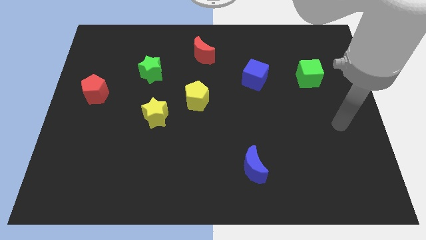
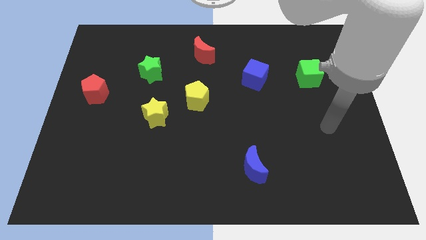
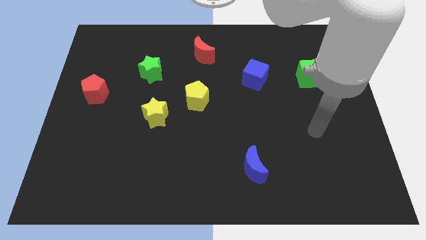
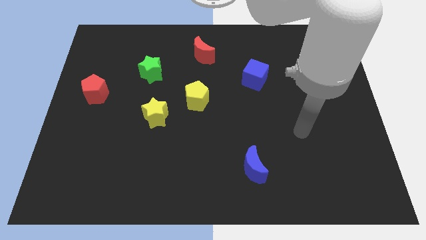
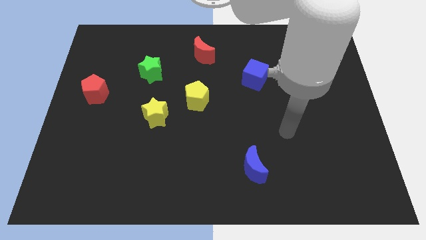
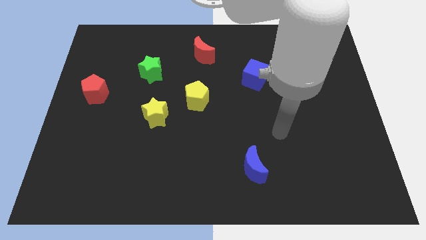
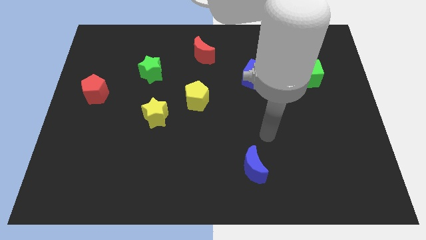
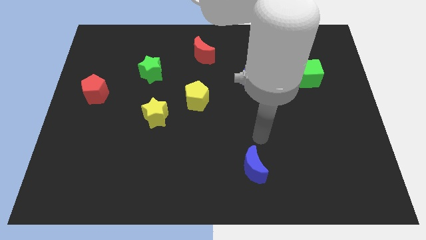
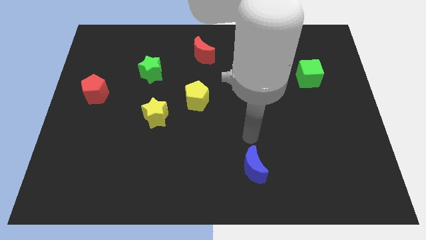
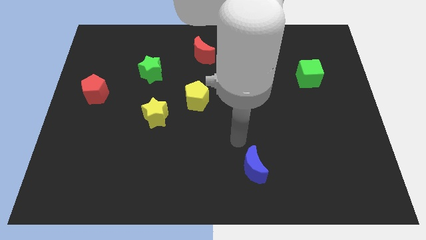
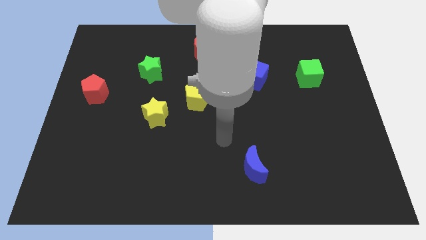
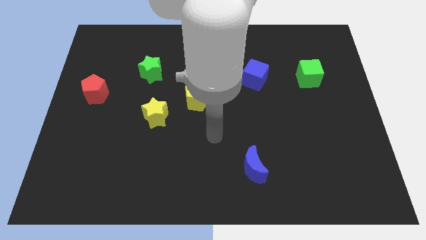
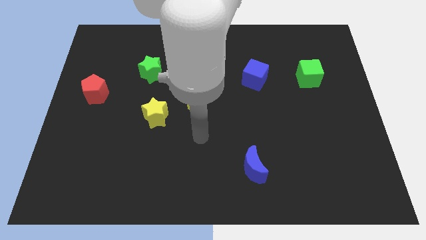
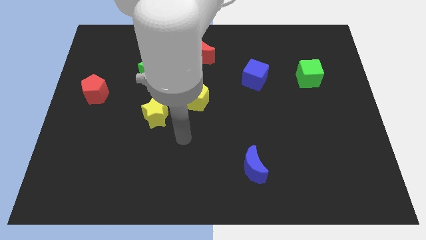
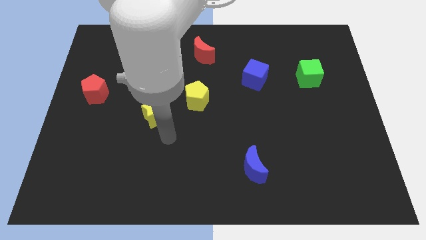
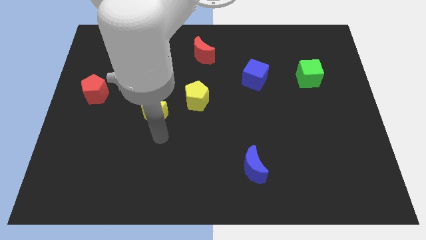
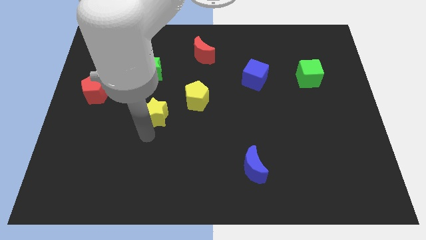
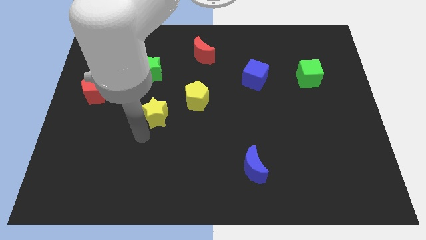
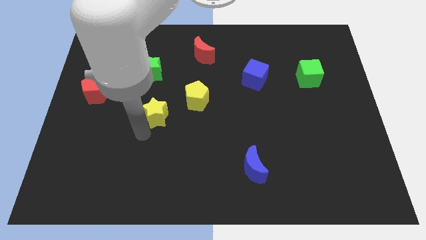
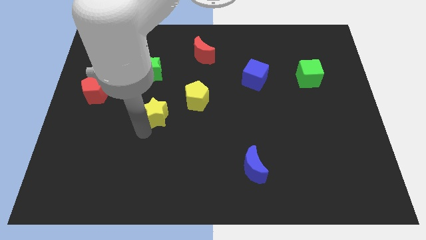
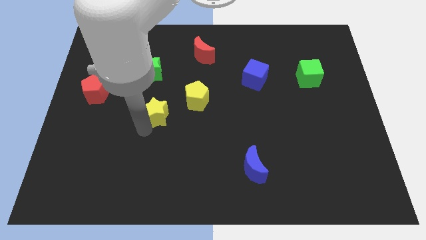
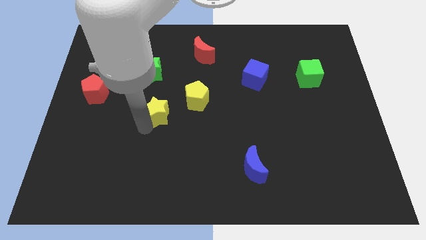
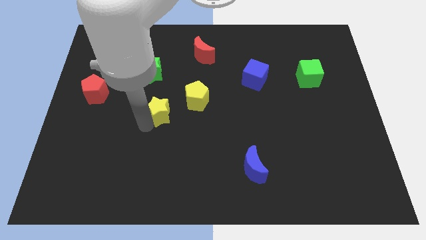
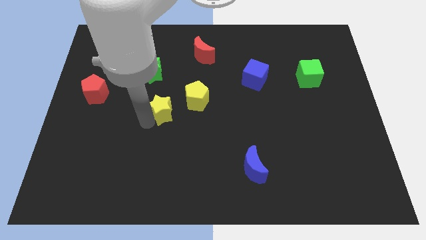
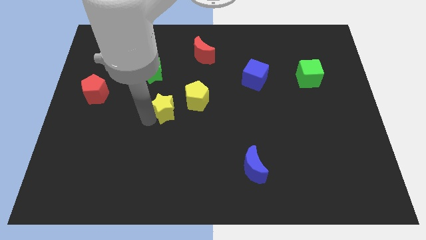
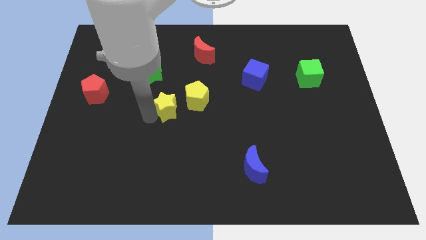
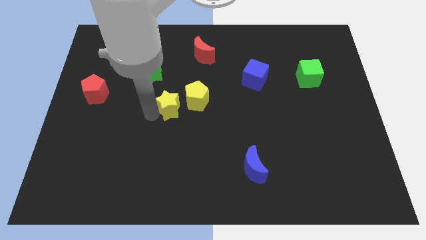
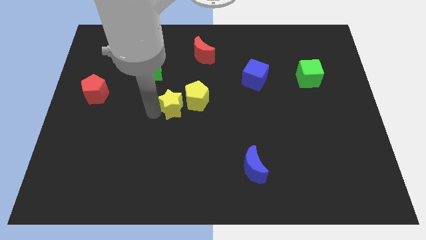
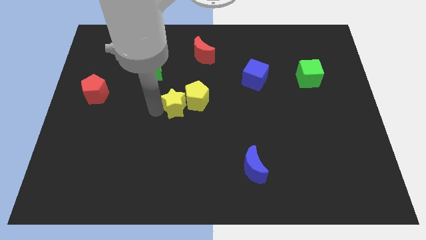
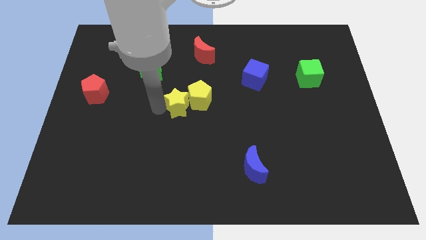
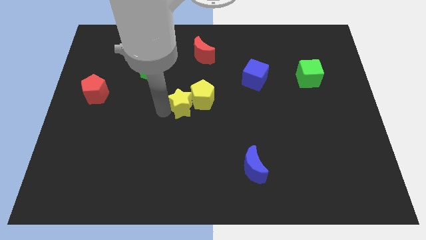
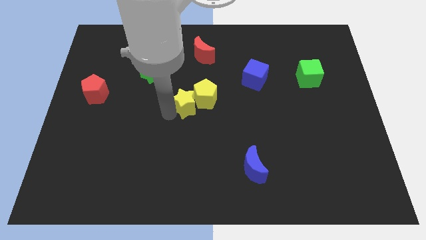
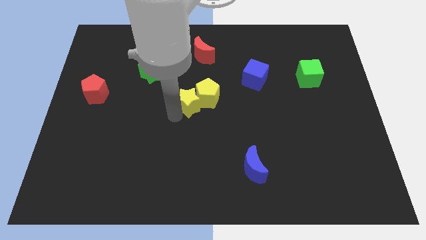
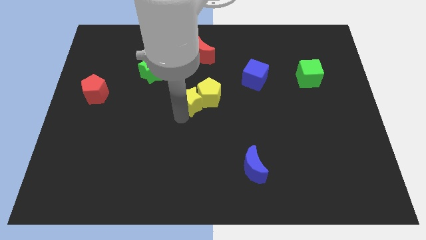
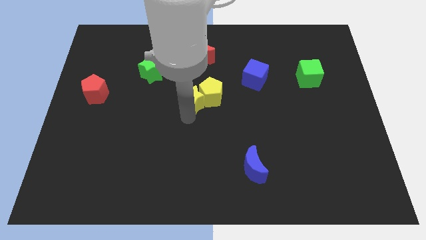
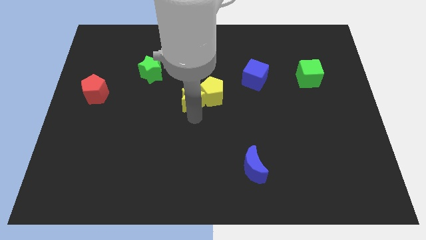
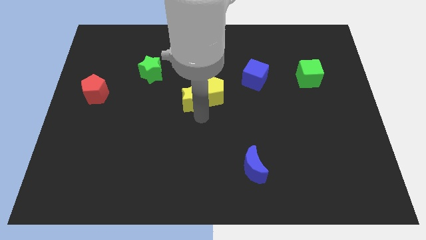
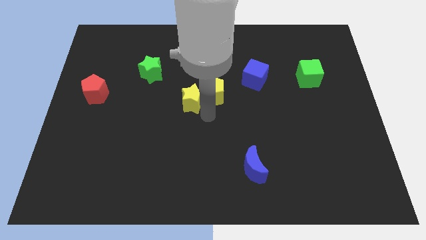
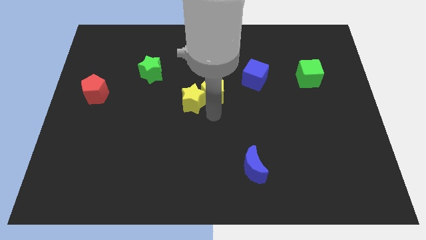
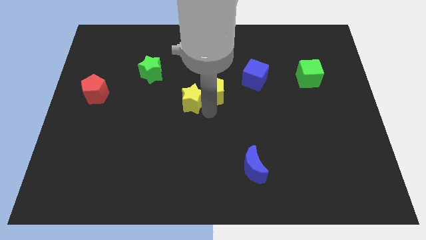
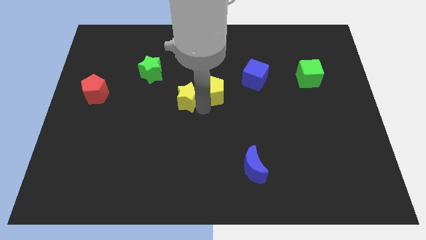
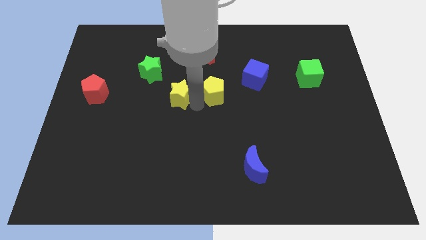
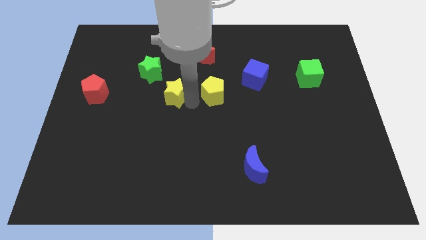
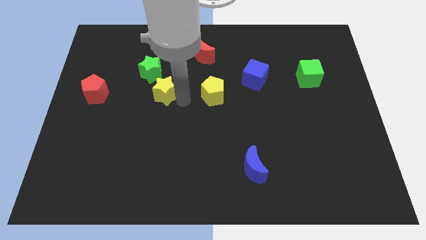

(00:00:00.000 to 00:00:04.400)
slightly move the yellow star upwards

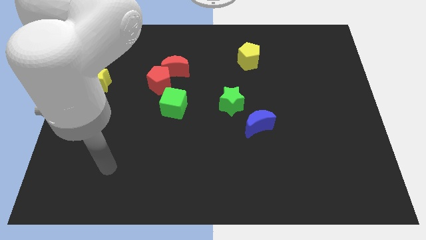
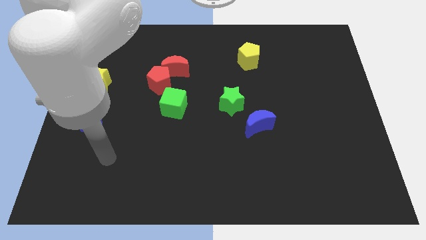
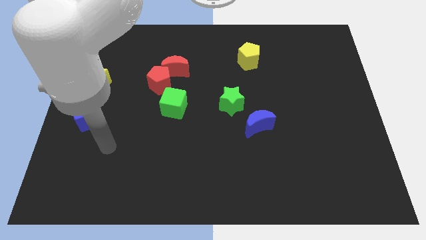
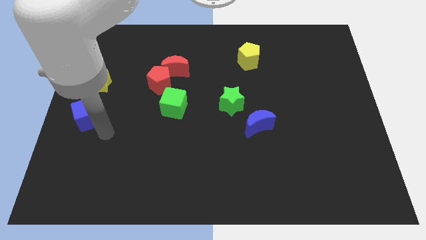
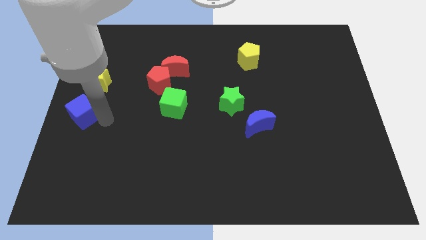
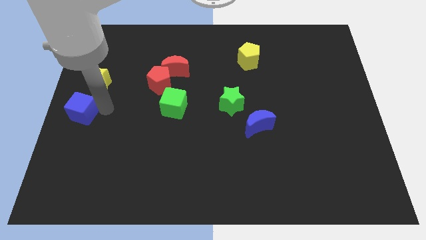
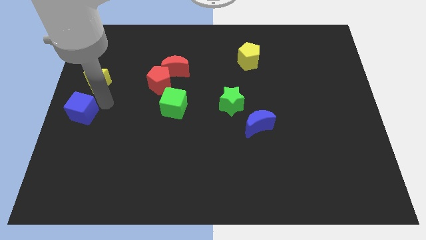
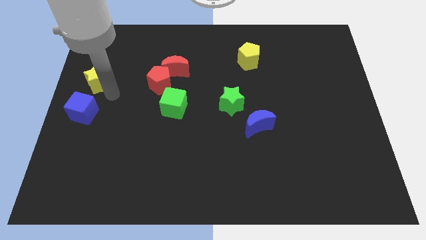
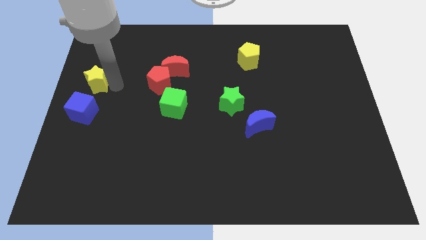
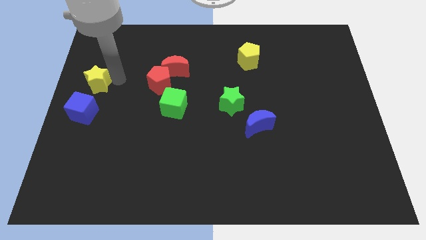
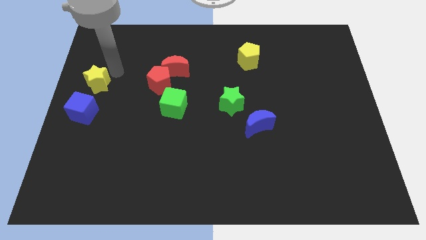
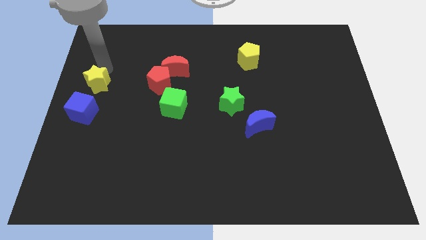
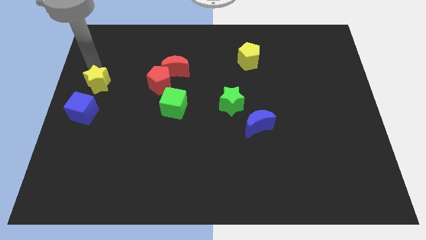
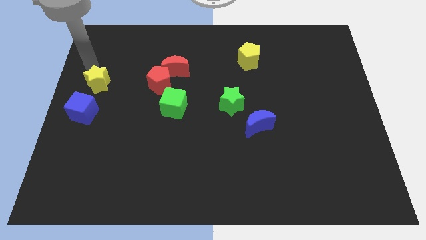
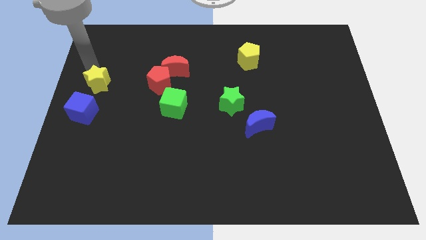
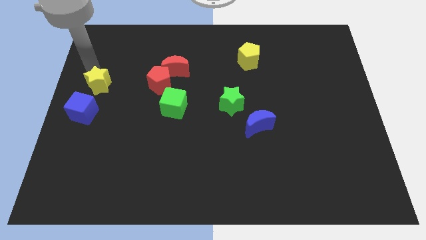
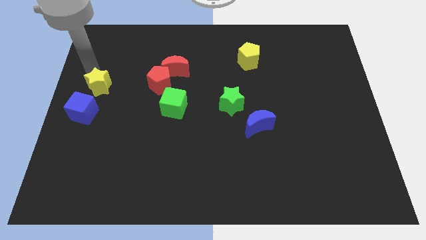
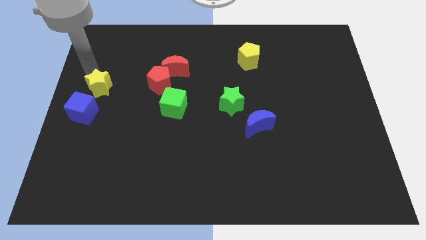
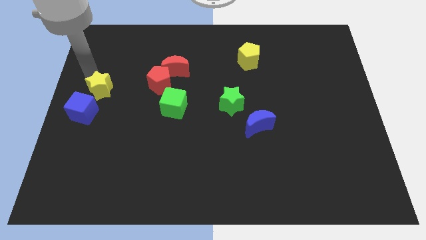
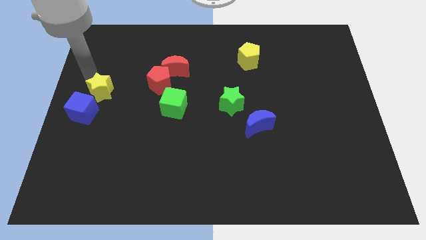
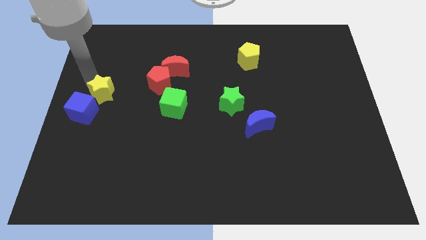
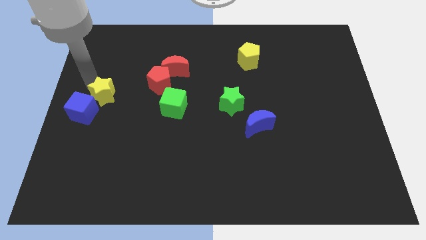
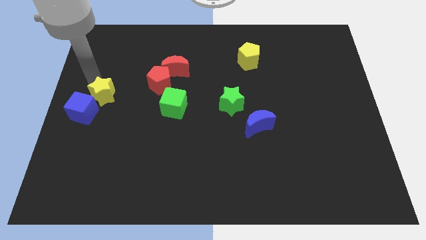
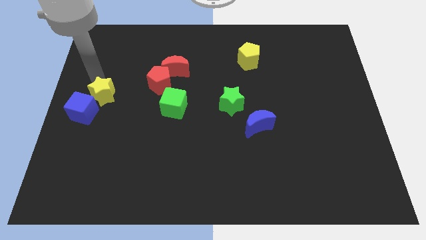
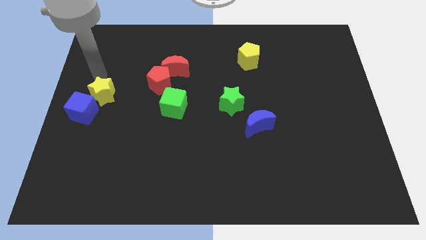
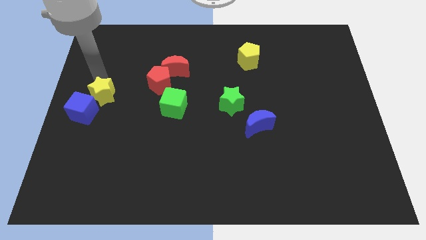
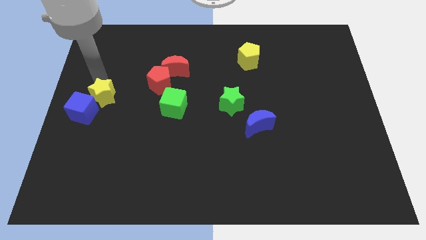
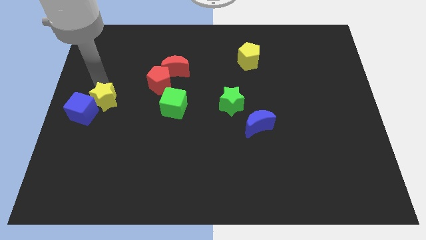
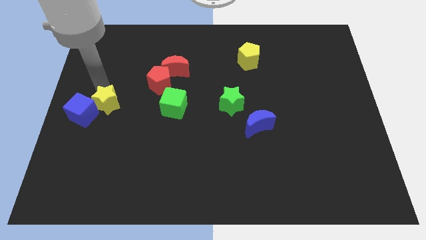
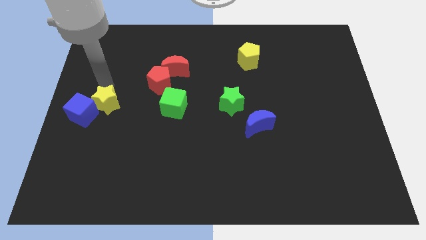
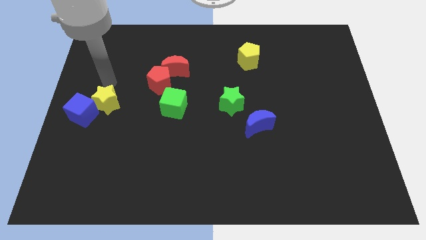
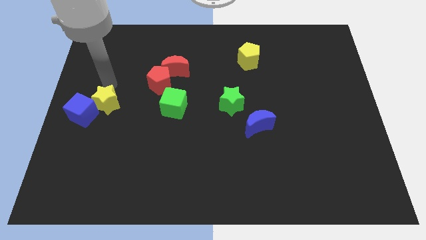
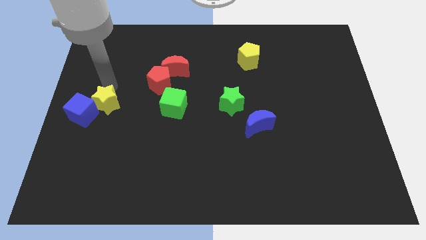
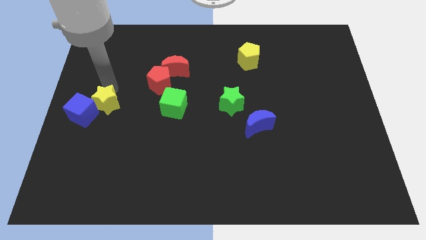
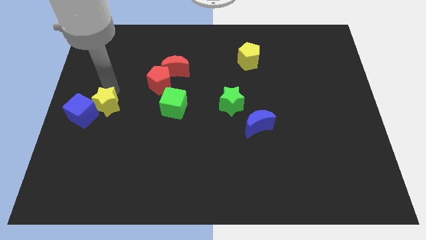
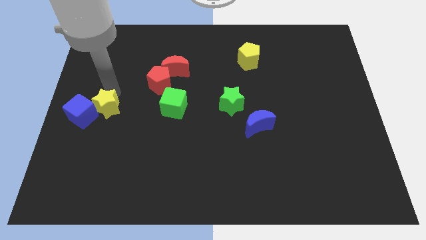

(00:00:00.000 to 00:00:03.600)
push the yellow star somewhat down

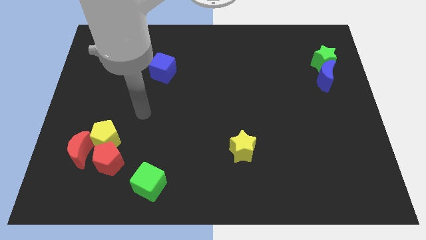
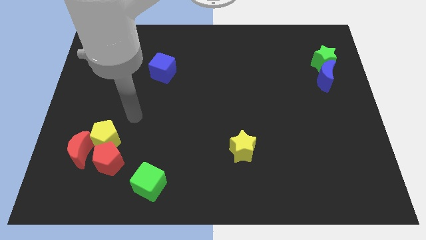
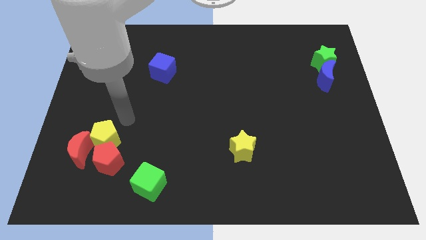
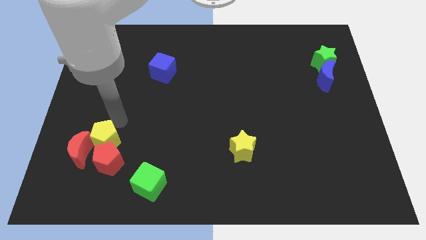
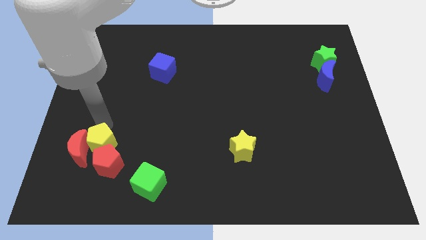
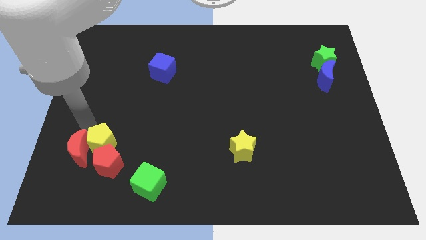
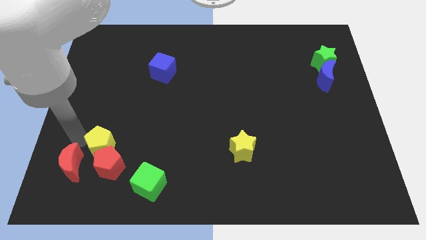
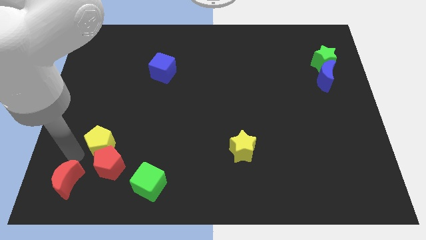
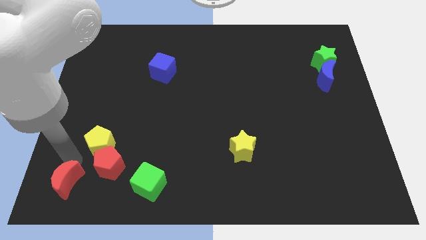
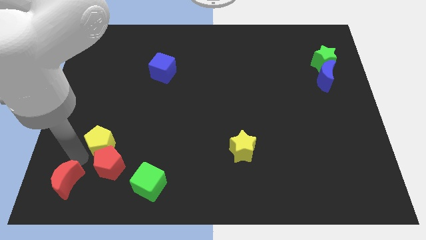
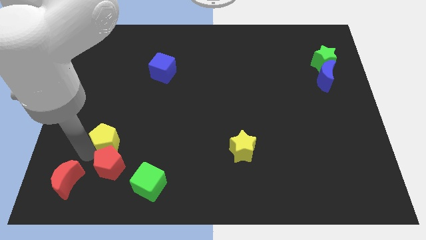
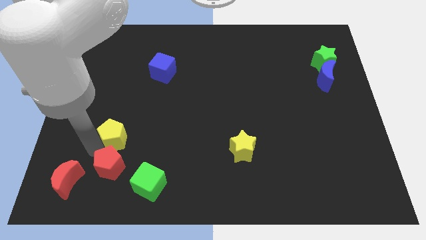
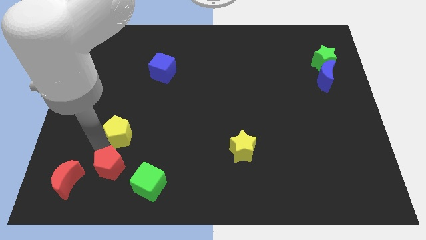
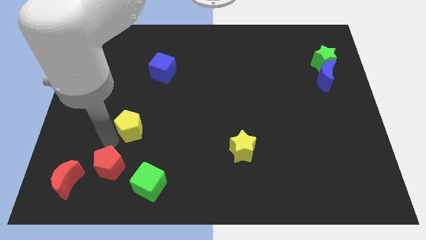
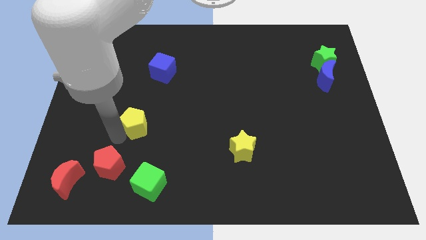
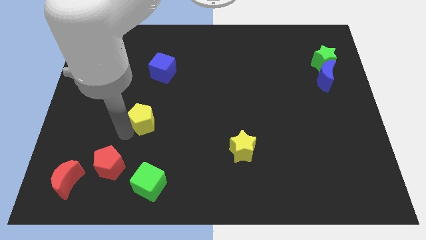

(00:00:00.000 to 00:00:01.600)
push the yellow pentagon up and to the right a little
